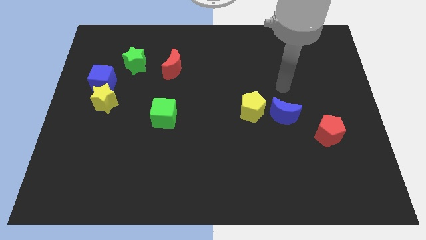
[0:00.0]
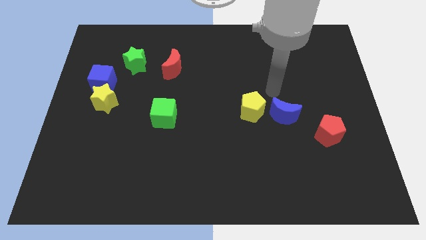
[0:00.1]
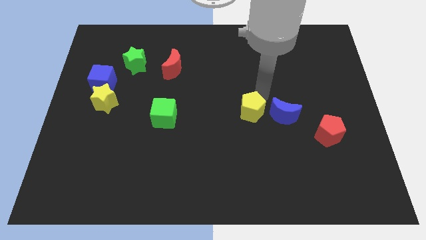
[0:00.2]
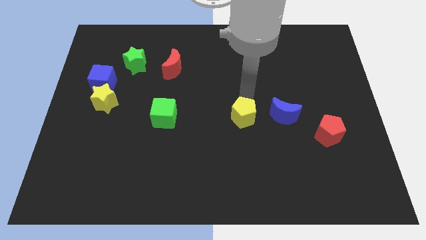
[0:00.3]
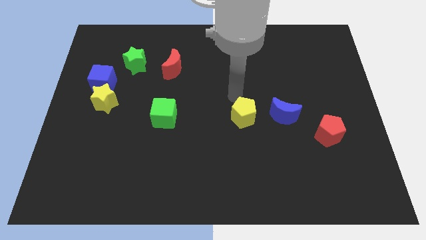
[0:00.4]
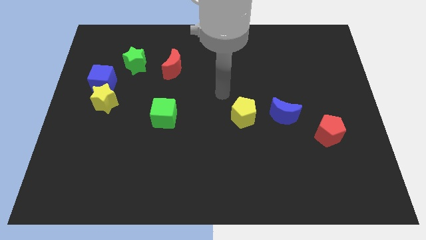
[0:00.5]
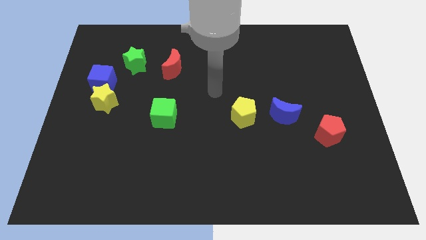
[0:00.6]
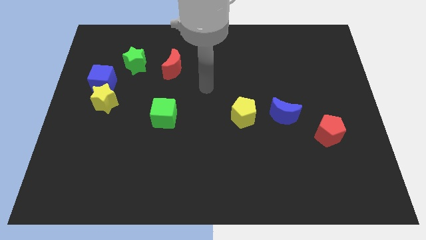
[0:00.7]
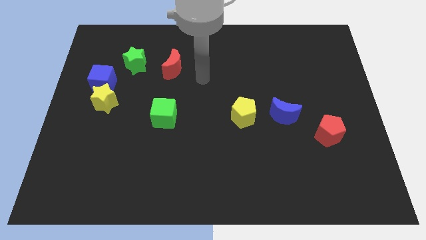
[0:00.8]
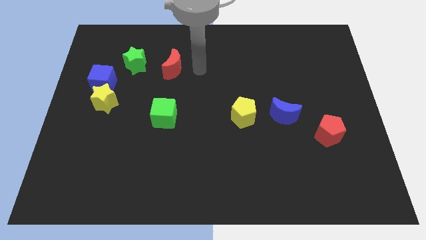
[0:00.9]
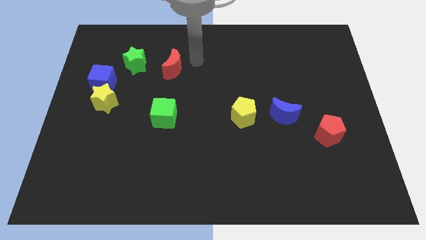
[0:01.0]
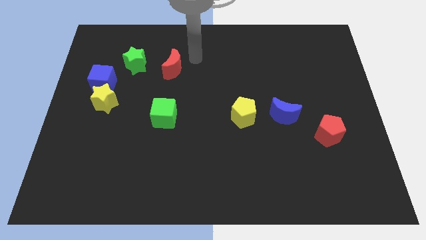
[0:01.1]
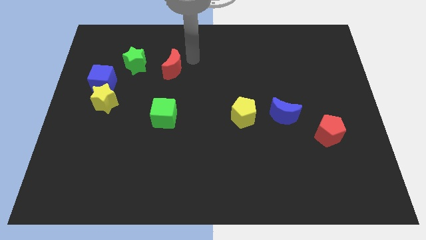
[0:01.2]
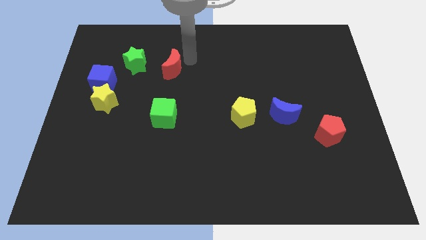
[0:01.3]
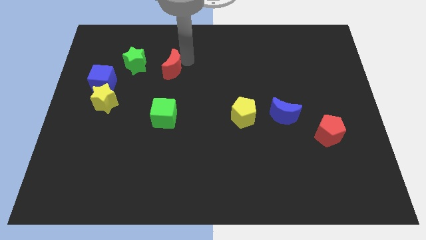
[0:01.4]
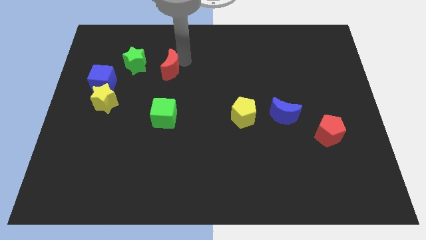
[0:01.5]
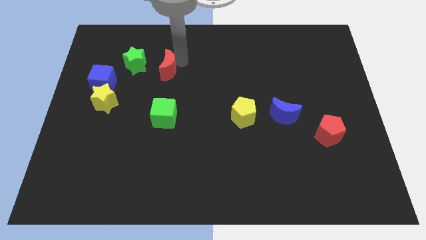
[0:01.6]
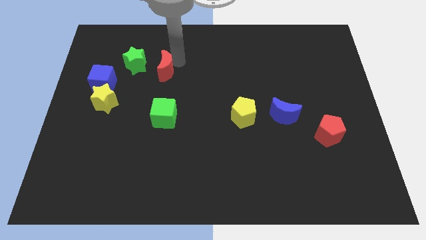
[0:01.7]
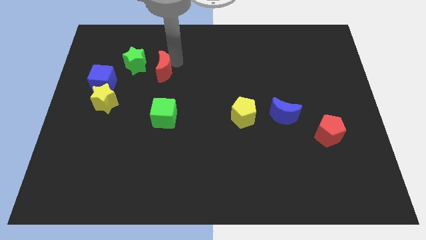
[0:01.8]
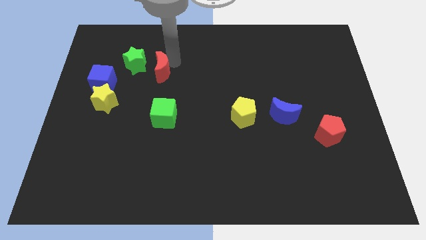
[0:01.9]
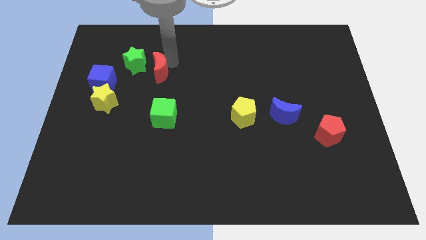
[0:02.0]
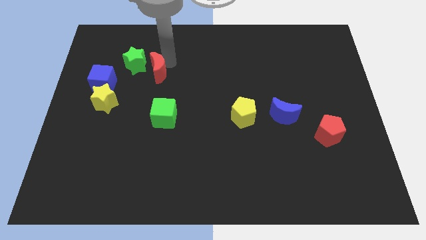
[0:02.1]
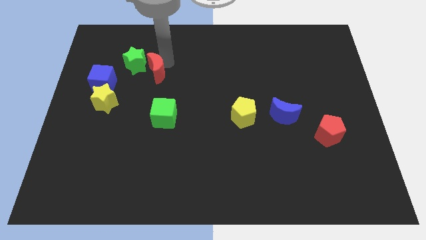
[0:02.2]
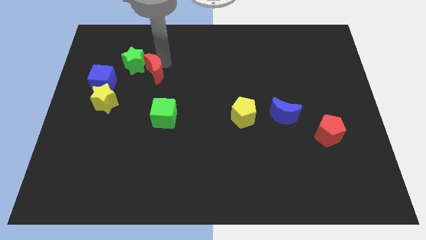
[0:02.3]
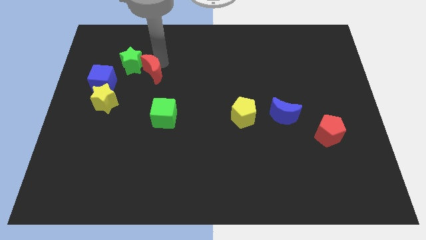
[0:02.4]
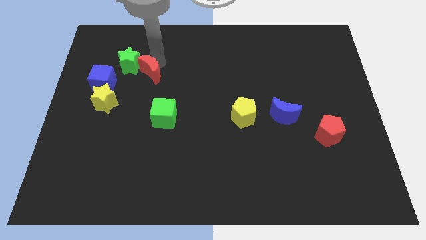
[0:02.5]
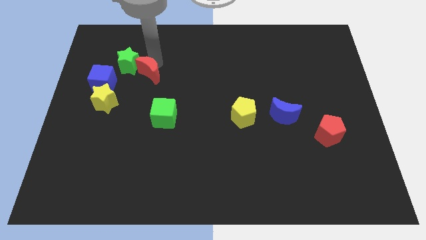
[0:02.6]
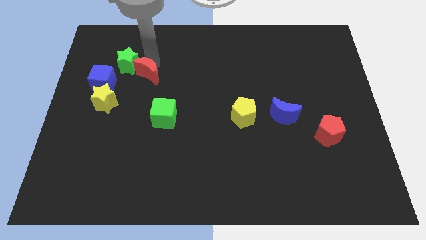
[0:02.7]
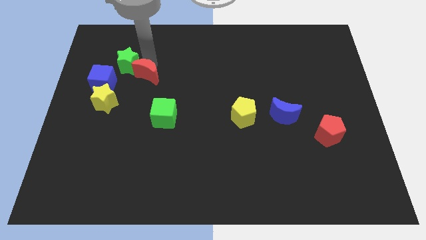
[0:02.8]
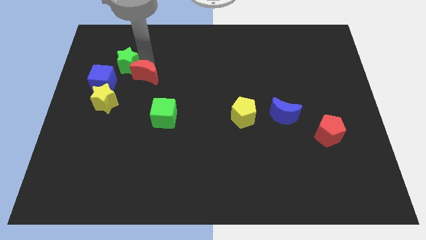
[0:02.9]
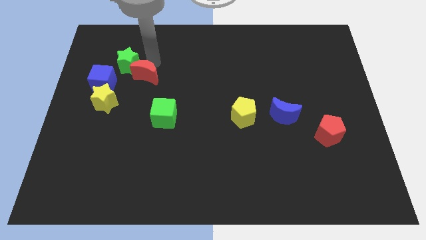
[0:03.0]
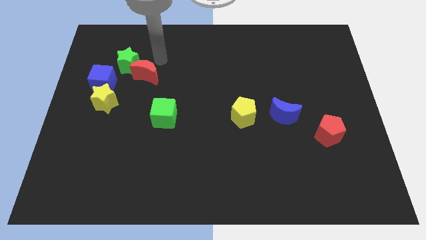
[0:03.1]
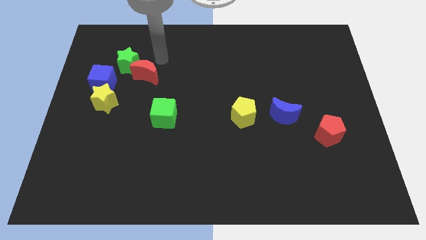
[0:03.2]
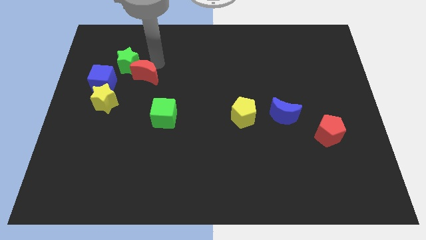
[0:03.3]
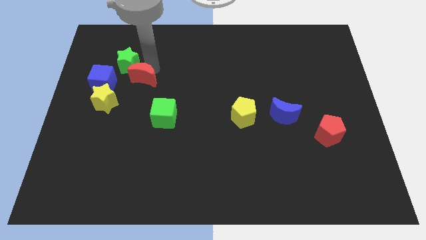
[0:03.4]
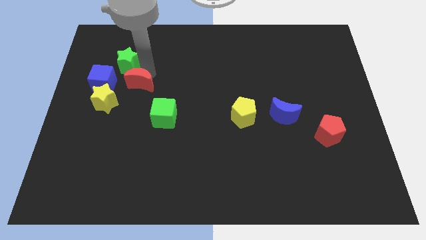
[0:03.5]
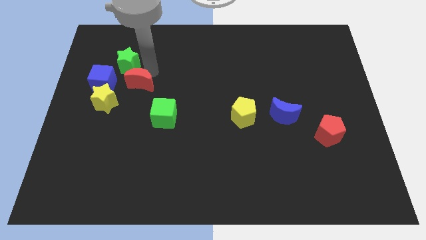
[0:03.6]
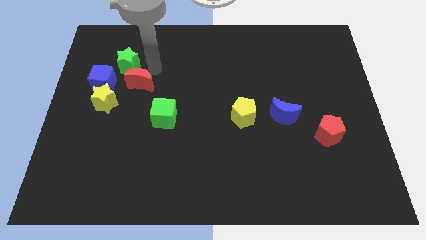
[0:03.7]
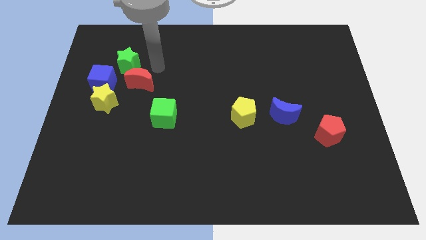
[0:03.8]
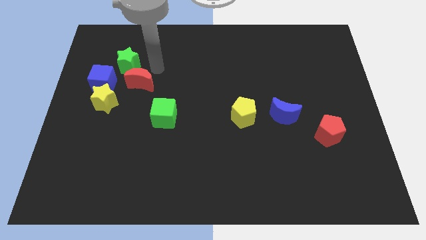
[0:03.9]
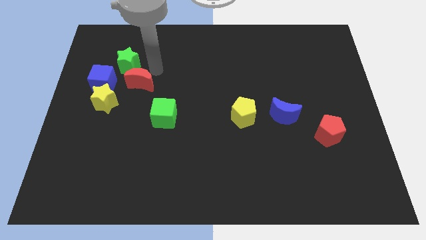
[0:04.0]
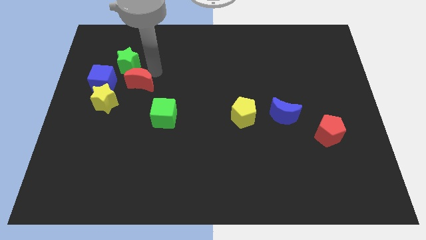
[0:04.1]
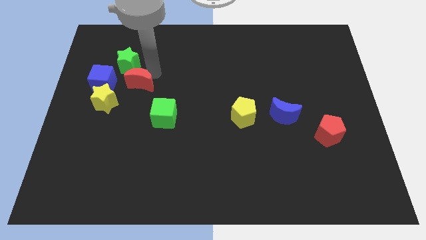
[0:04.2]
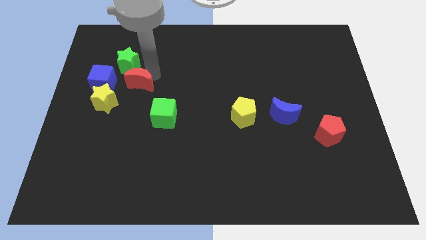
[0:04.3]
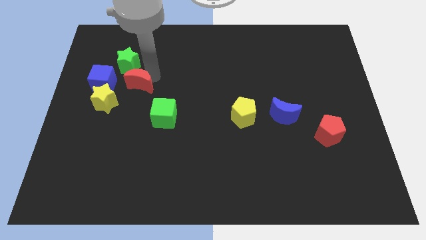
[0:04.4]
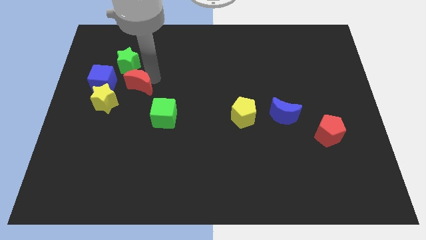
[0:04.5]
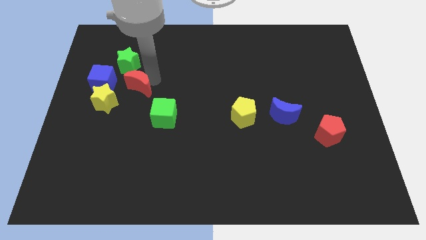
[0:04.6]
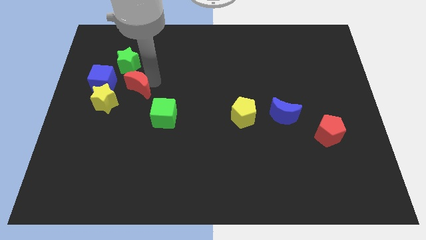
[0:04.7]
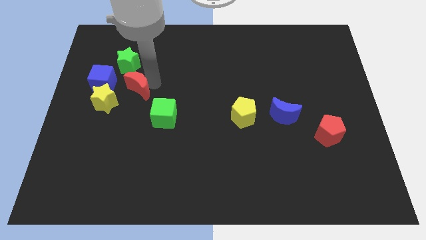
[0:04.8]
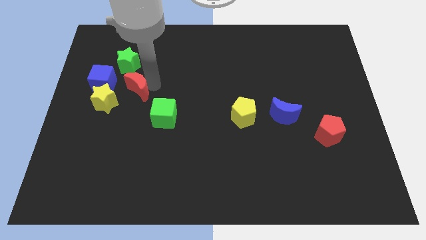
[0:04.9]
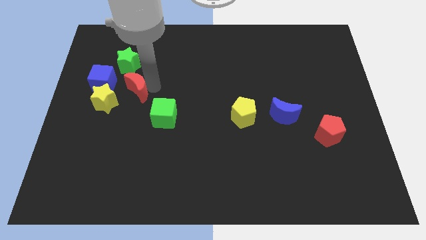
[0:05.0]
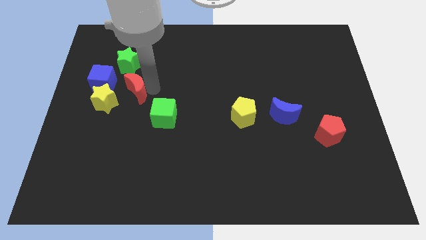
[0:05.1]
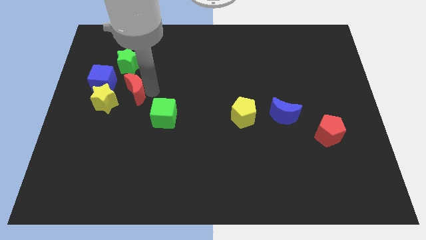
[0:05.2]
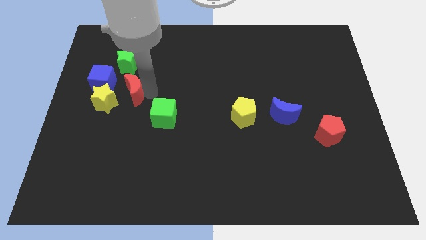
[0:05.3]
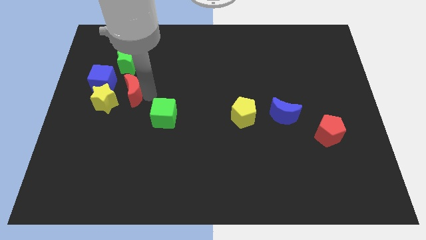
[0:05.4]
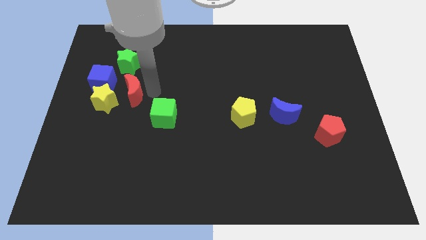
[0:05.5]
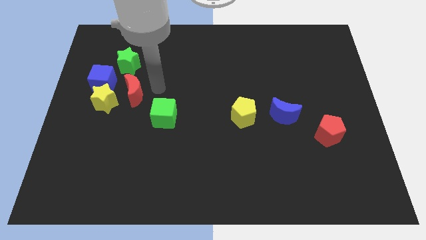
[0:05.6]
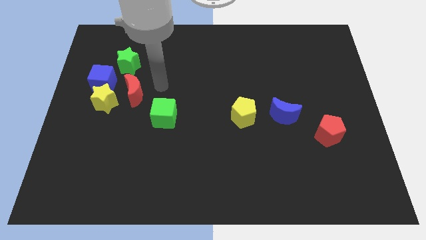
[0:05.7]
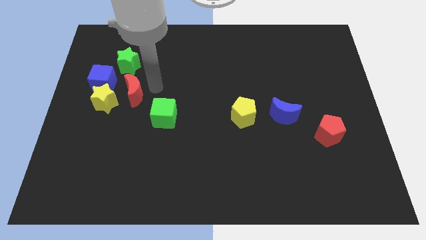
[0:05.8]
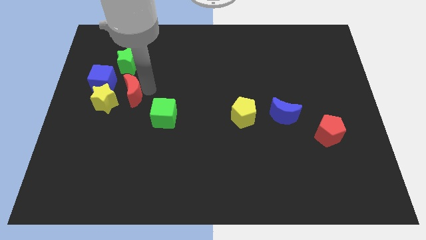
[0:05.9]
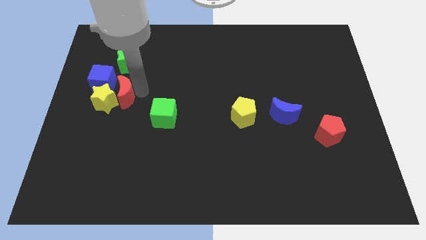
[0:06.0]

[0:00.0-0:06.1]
push the red moon towards the yellow star

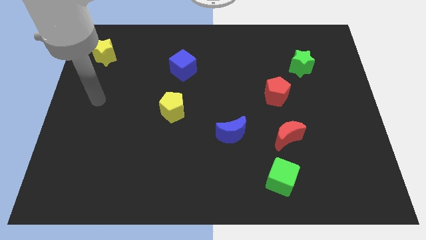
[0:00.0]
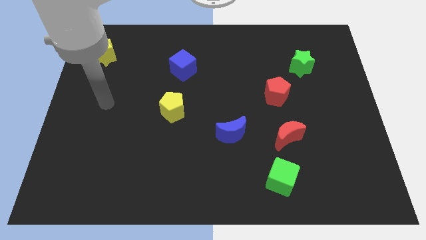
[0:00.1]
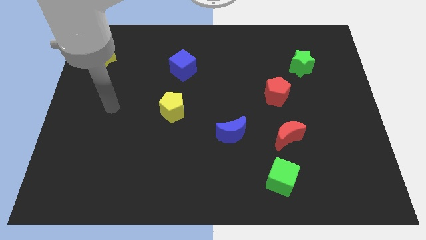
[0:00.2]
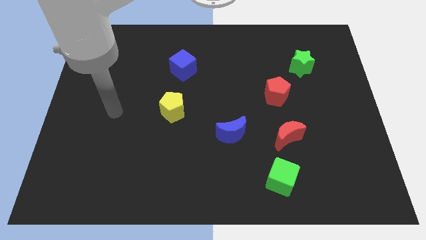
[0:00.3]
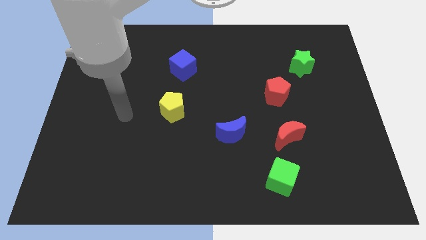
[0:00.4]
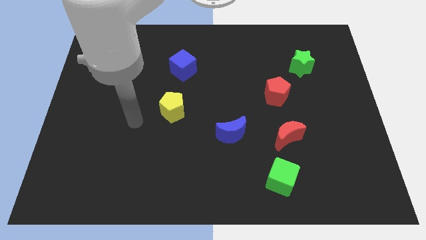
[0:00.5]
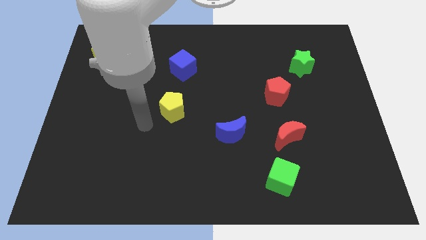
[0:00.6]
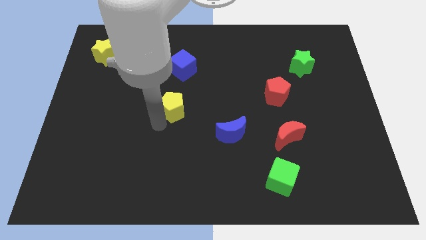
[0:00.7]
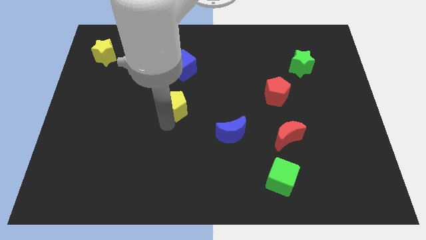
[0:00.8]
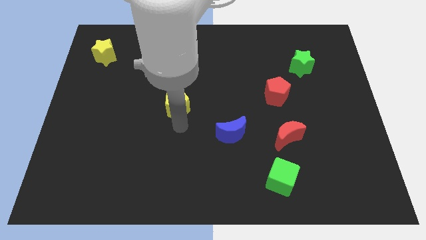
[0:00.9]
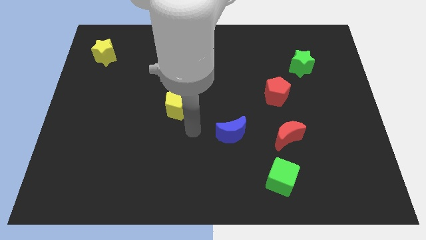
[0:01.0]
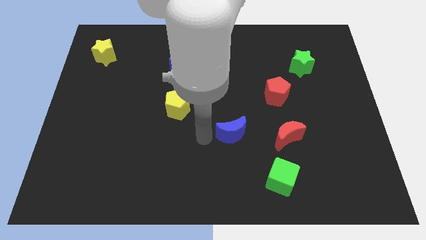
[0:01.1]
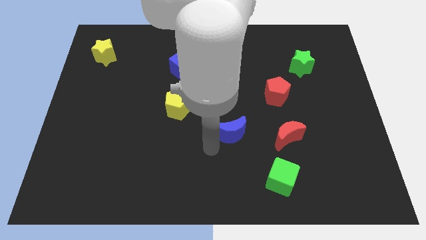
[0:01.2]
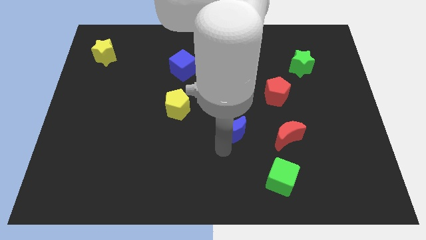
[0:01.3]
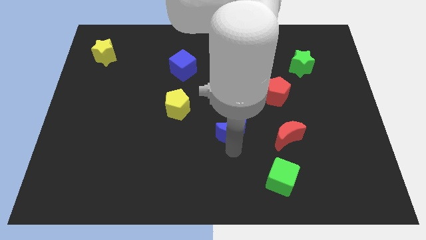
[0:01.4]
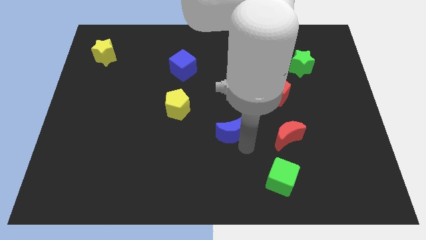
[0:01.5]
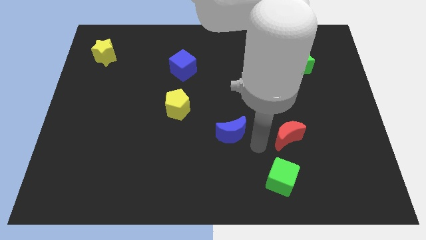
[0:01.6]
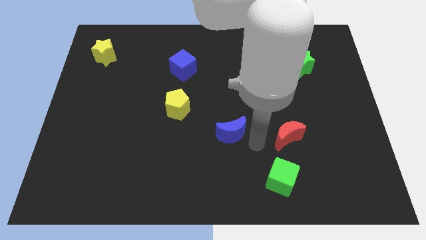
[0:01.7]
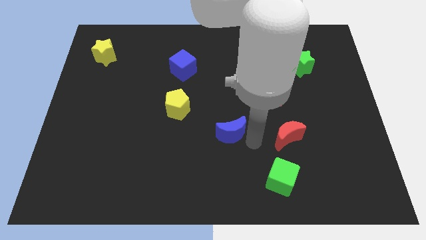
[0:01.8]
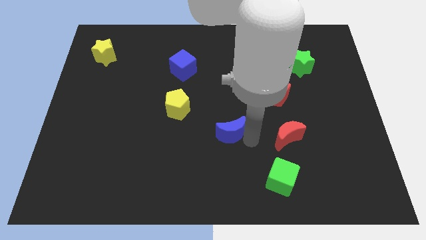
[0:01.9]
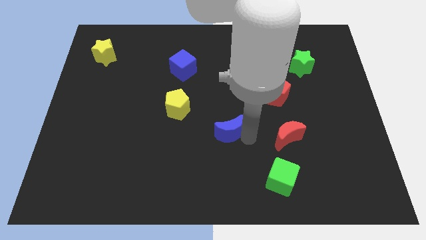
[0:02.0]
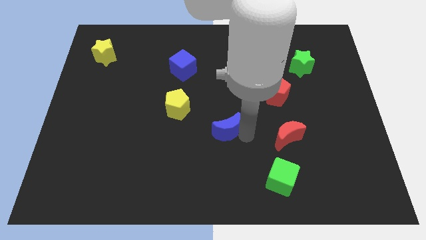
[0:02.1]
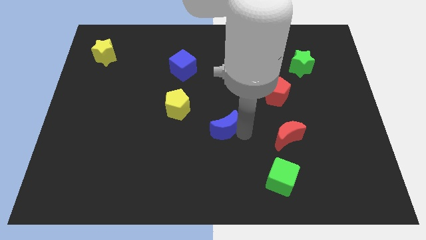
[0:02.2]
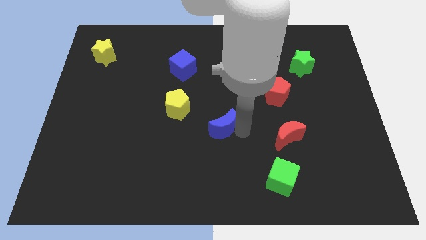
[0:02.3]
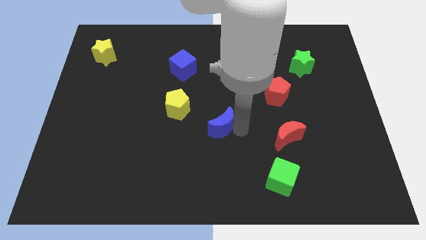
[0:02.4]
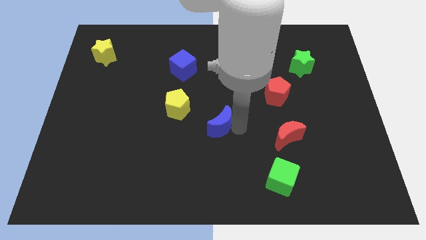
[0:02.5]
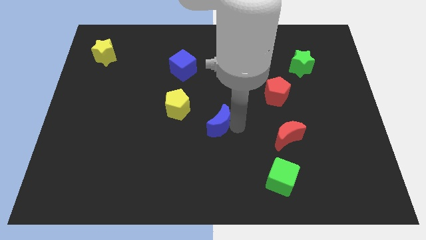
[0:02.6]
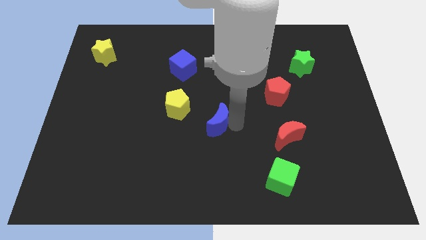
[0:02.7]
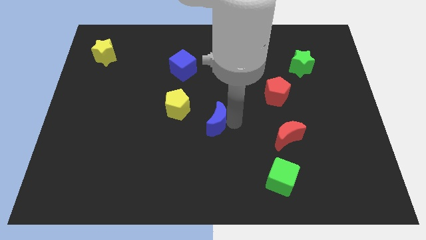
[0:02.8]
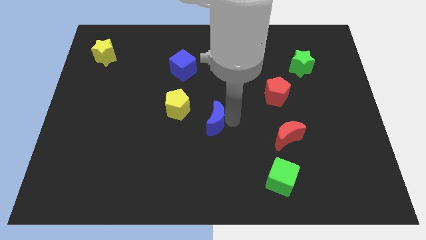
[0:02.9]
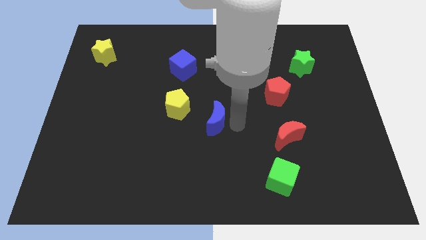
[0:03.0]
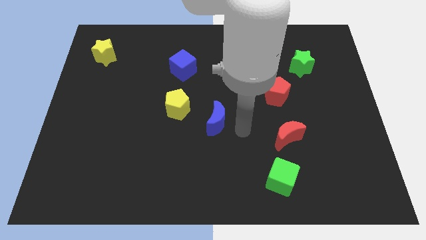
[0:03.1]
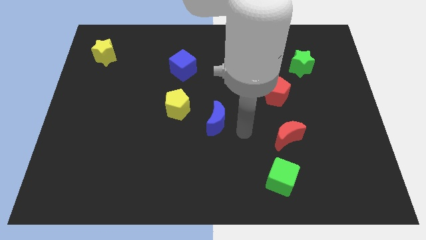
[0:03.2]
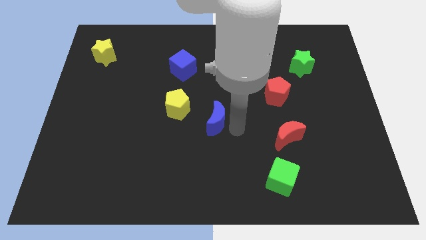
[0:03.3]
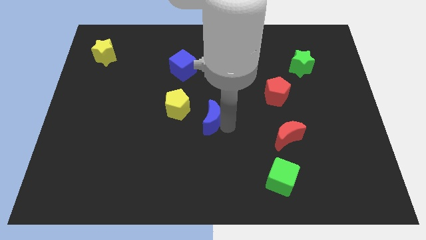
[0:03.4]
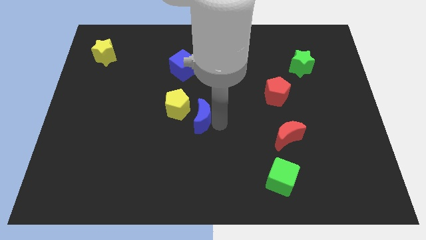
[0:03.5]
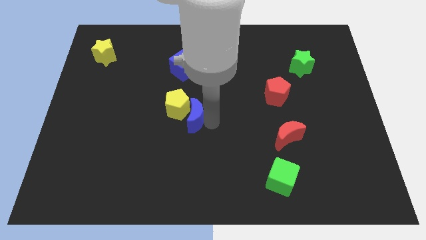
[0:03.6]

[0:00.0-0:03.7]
put the blue moon close to the yellow pentagon
